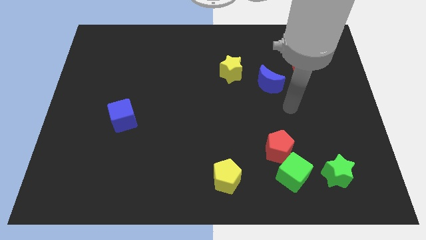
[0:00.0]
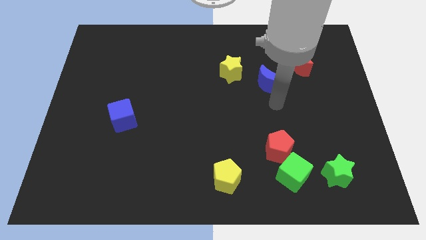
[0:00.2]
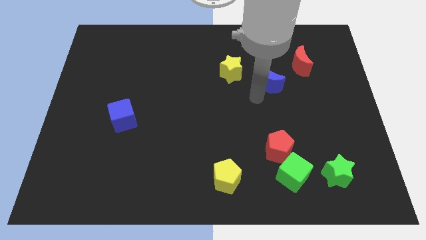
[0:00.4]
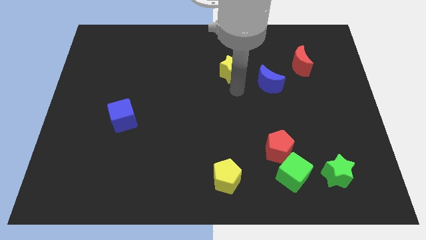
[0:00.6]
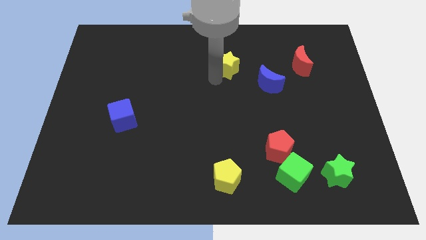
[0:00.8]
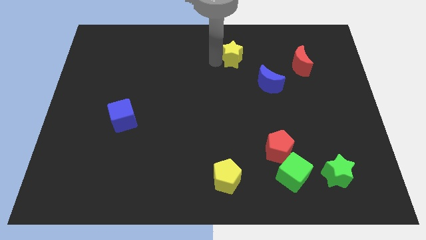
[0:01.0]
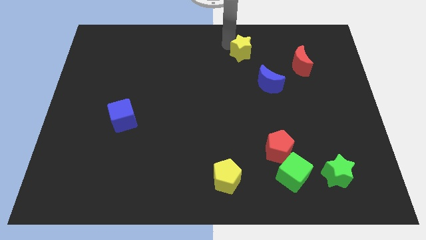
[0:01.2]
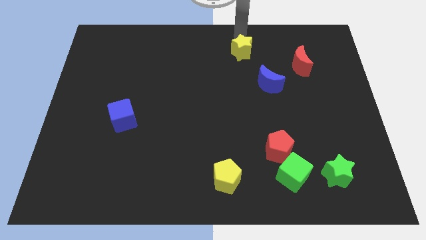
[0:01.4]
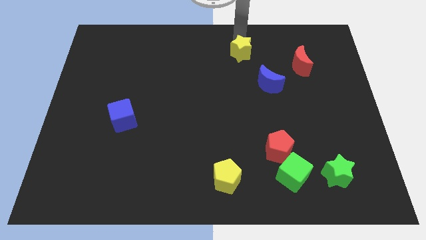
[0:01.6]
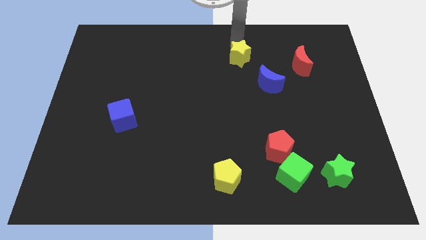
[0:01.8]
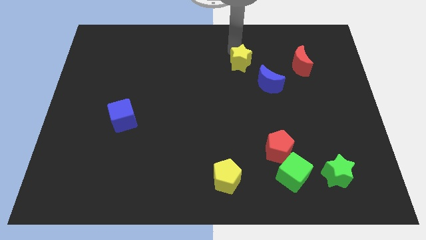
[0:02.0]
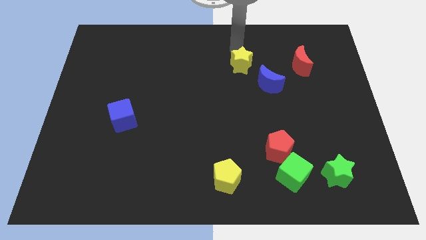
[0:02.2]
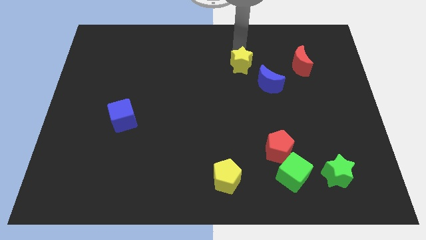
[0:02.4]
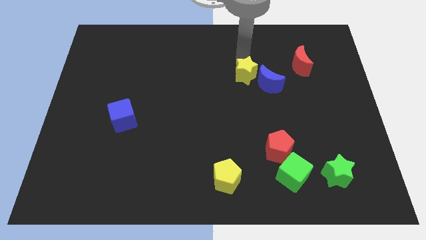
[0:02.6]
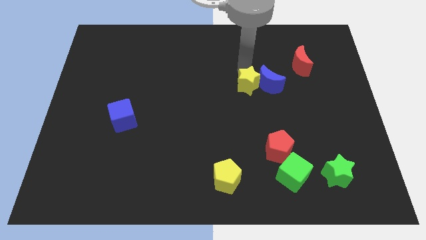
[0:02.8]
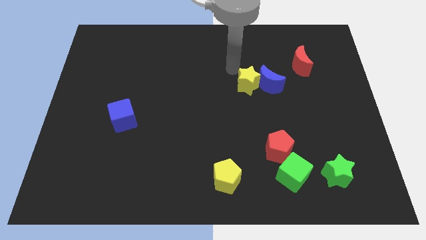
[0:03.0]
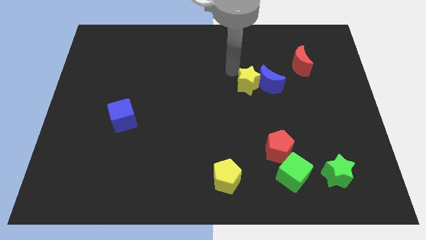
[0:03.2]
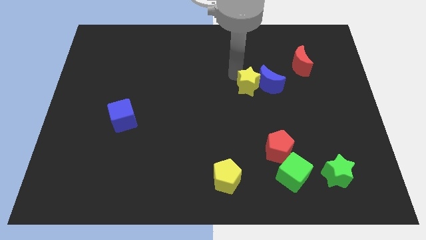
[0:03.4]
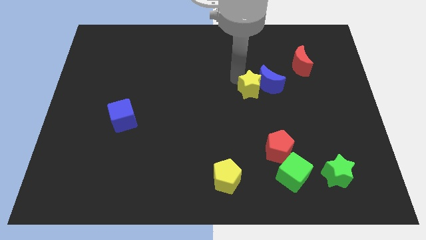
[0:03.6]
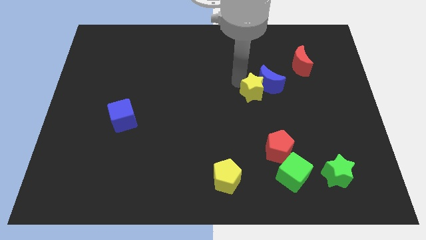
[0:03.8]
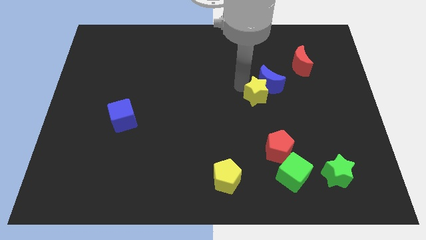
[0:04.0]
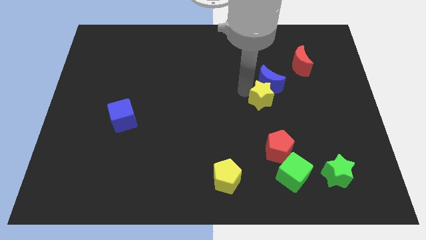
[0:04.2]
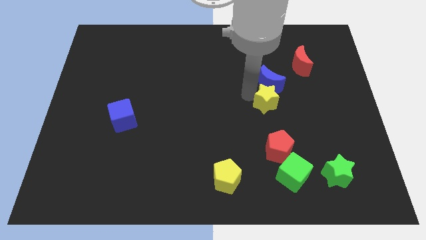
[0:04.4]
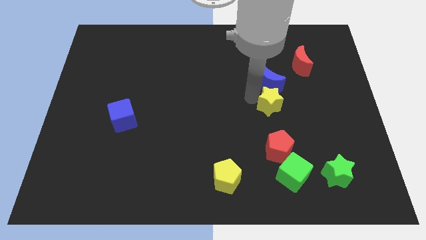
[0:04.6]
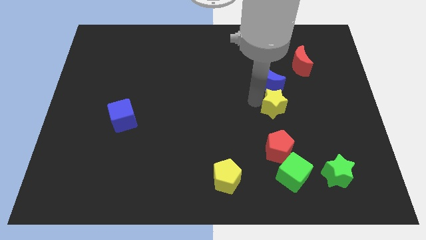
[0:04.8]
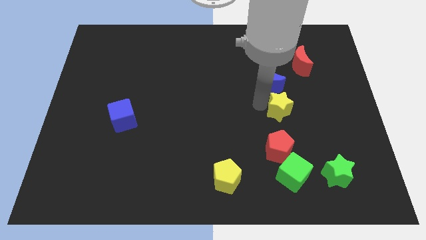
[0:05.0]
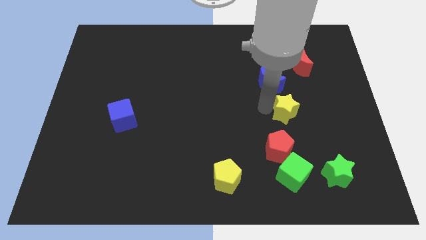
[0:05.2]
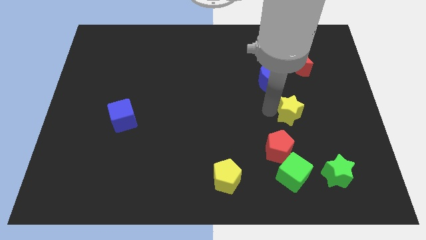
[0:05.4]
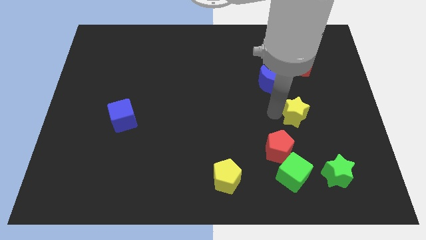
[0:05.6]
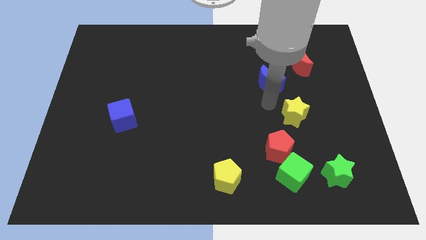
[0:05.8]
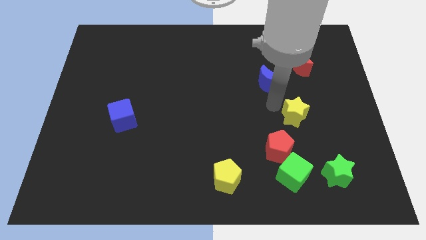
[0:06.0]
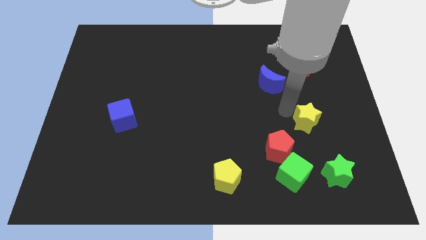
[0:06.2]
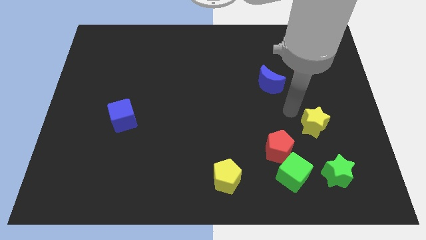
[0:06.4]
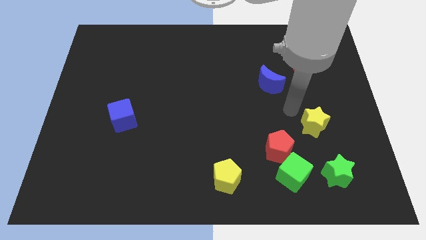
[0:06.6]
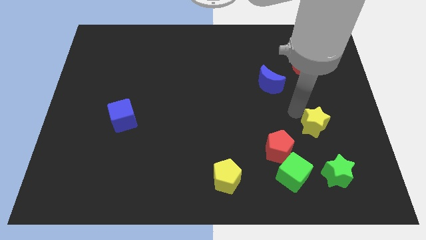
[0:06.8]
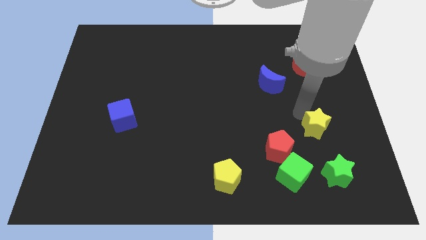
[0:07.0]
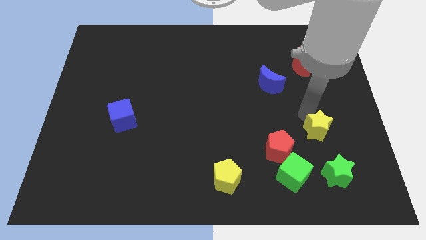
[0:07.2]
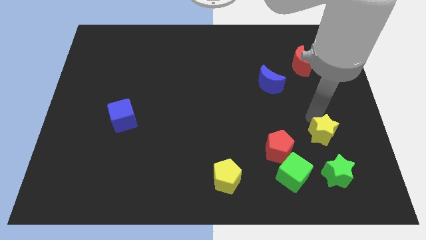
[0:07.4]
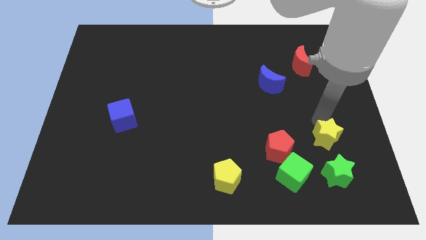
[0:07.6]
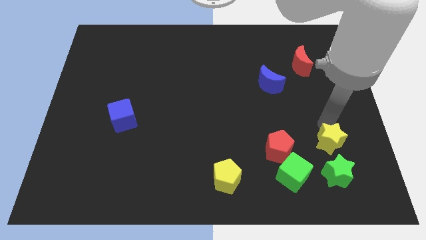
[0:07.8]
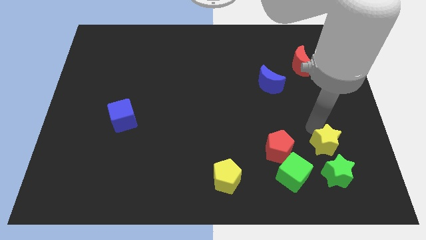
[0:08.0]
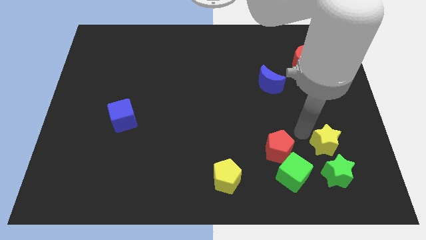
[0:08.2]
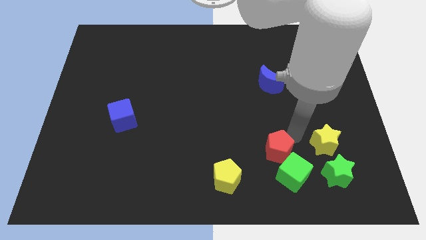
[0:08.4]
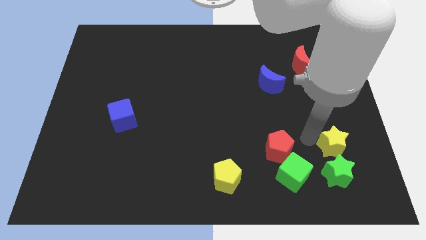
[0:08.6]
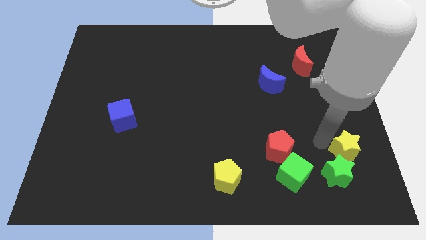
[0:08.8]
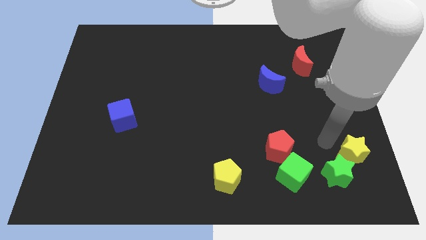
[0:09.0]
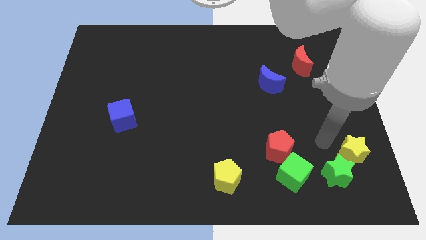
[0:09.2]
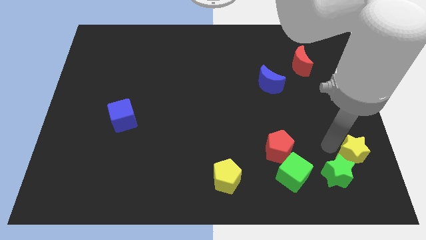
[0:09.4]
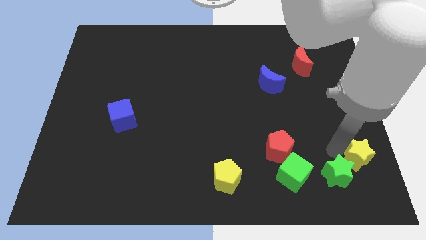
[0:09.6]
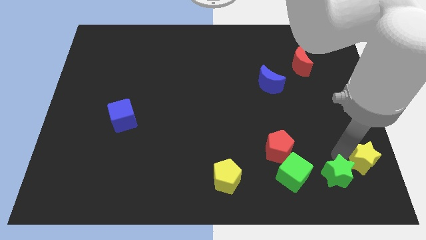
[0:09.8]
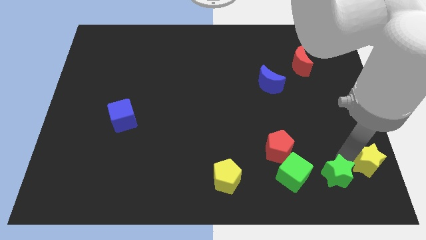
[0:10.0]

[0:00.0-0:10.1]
move the yellow star to the bottom right corner
